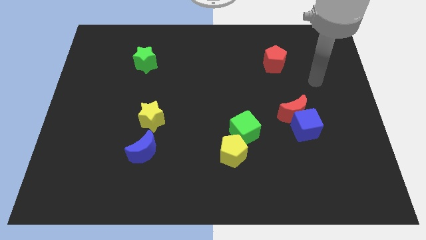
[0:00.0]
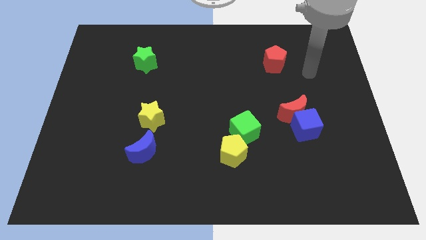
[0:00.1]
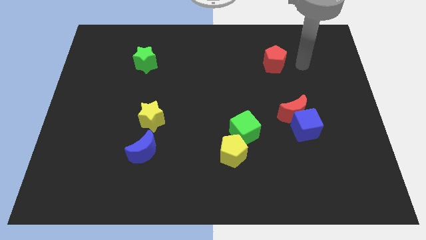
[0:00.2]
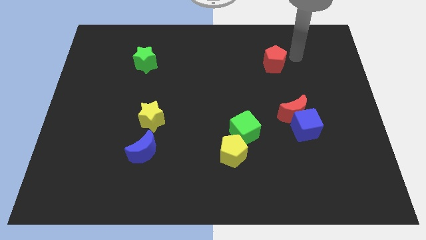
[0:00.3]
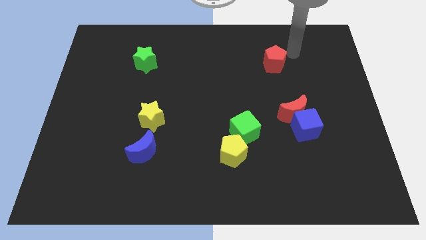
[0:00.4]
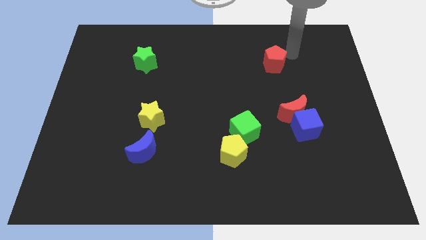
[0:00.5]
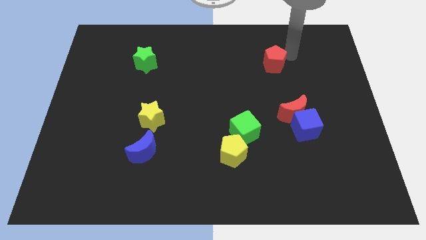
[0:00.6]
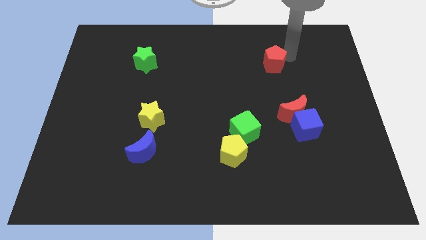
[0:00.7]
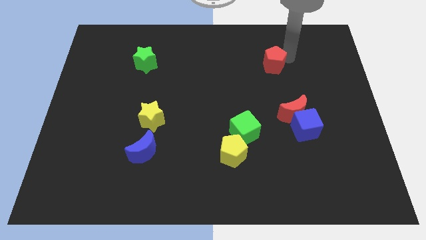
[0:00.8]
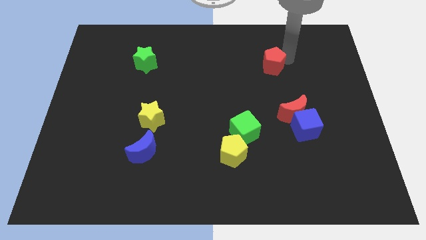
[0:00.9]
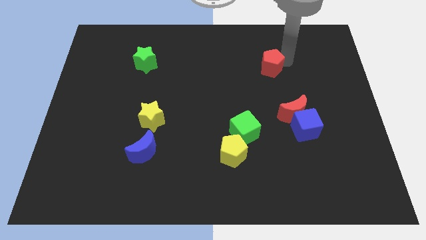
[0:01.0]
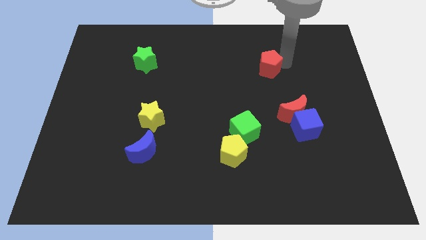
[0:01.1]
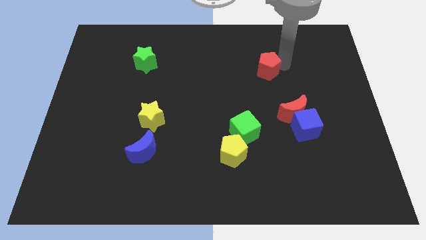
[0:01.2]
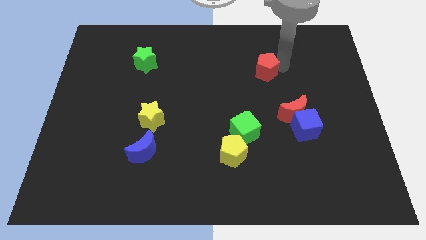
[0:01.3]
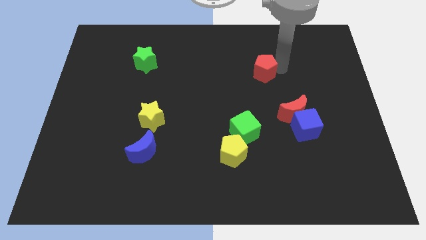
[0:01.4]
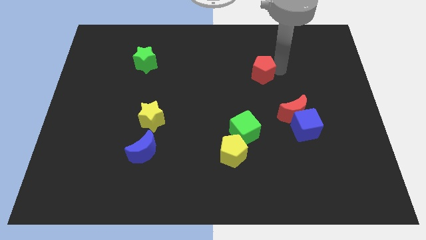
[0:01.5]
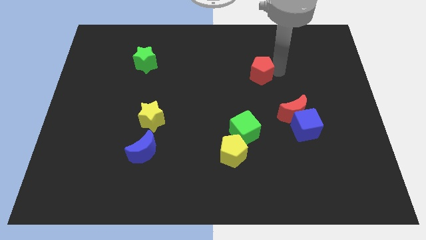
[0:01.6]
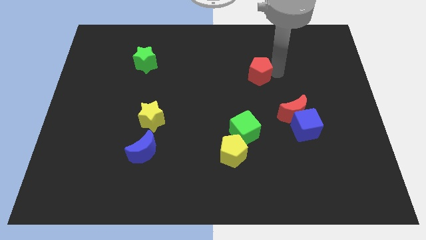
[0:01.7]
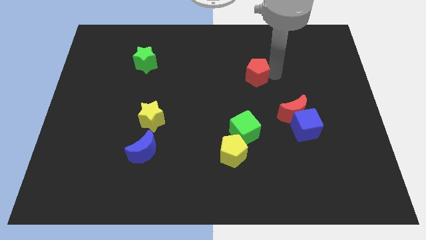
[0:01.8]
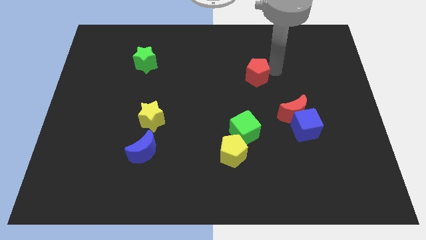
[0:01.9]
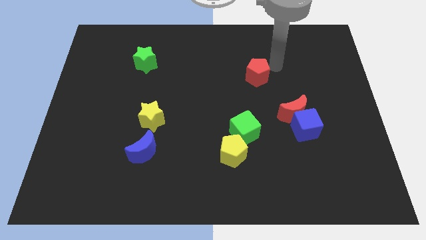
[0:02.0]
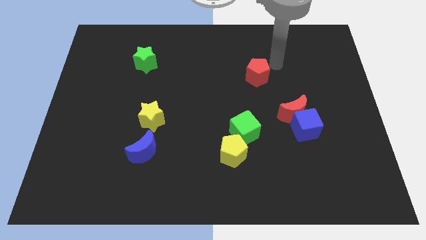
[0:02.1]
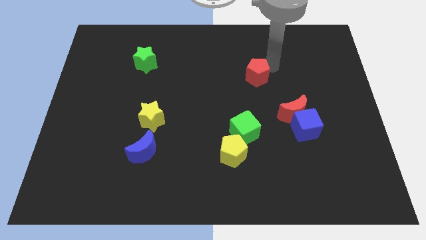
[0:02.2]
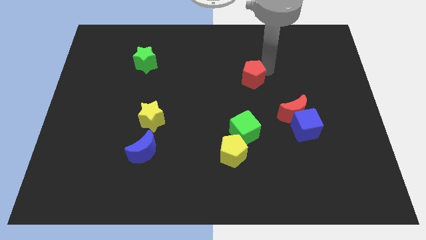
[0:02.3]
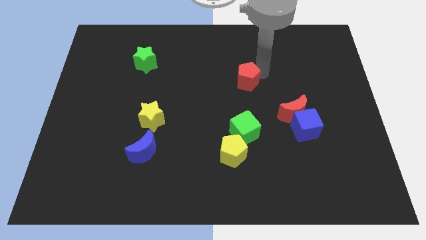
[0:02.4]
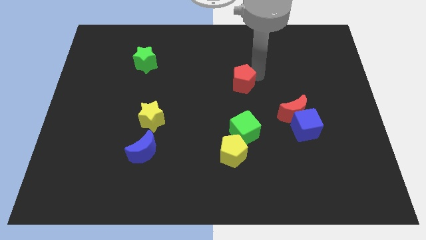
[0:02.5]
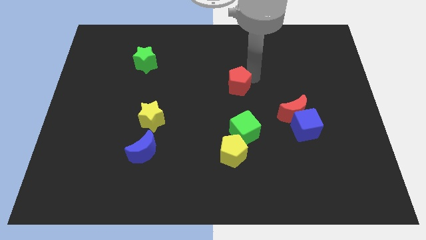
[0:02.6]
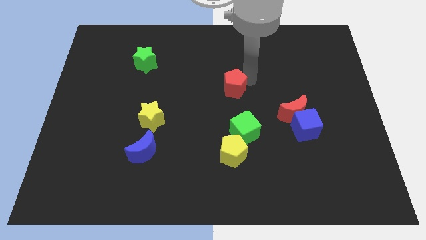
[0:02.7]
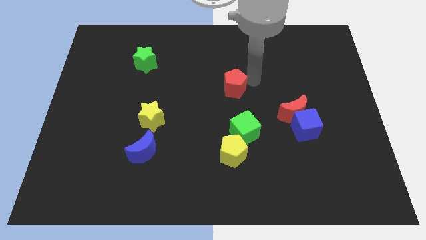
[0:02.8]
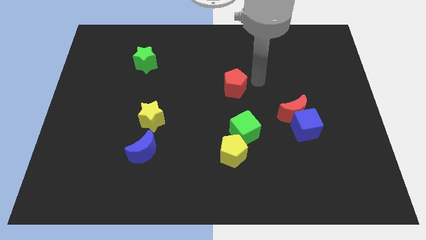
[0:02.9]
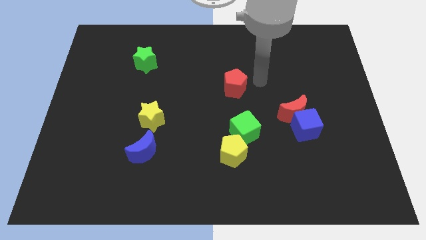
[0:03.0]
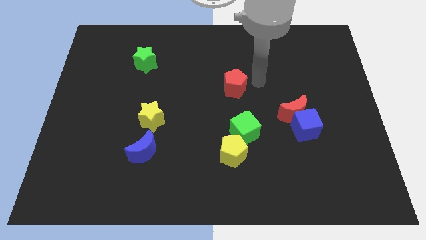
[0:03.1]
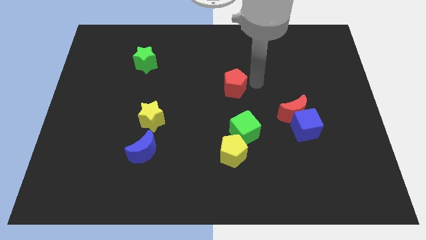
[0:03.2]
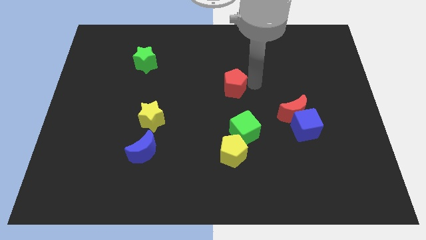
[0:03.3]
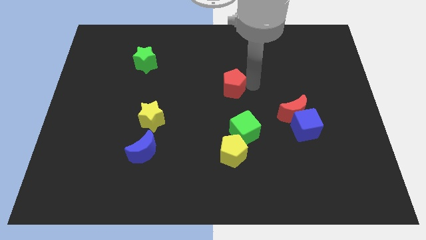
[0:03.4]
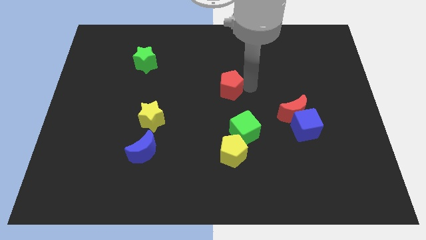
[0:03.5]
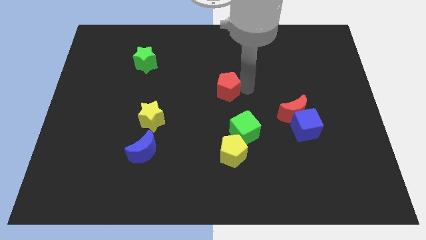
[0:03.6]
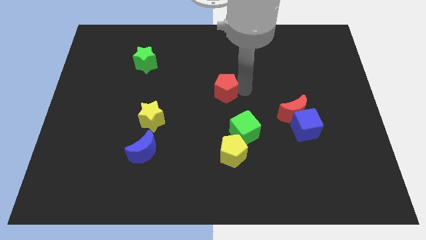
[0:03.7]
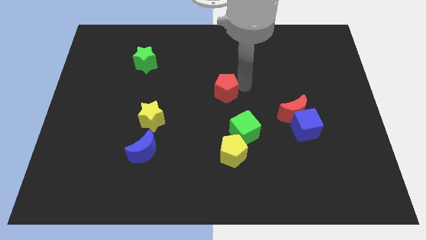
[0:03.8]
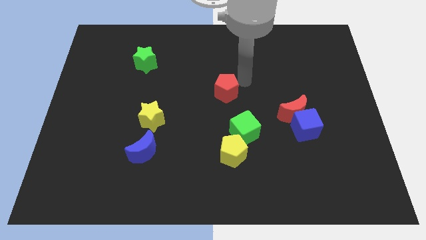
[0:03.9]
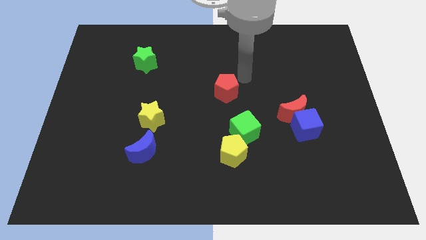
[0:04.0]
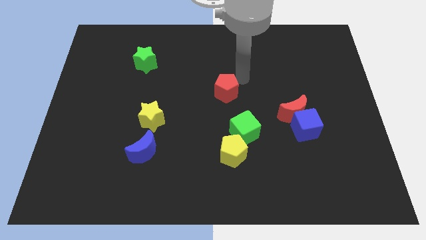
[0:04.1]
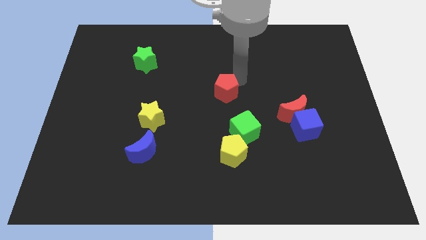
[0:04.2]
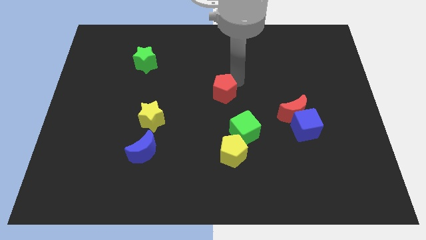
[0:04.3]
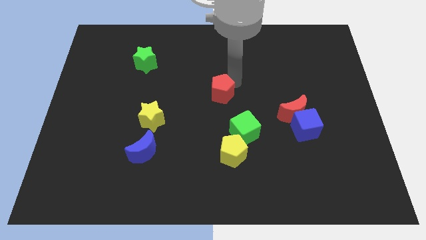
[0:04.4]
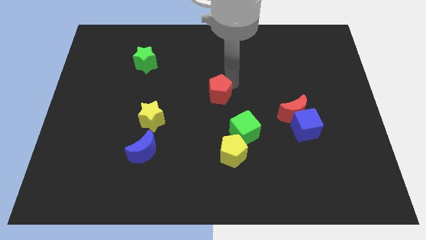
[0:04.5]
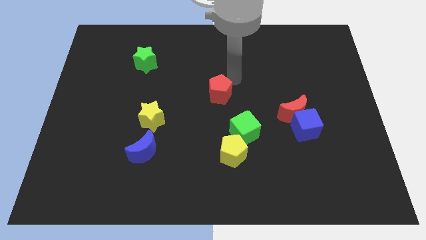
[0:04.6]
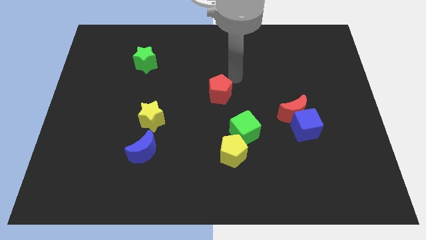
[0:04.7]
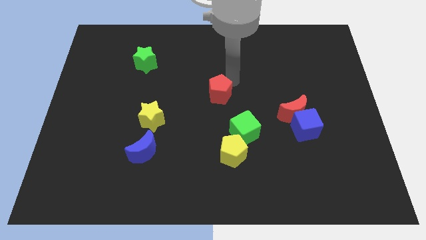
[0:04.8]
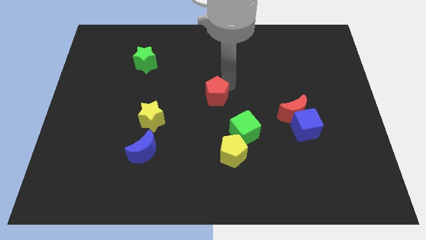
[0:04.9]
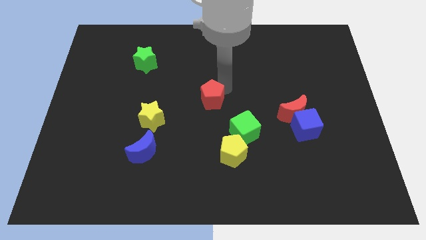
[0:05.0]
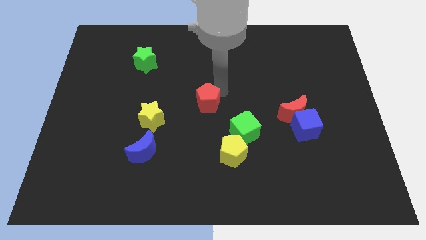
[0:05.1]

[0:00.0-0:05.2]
move the red pentagon down and then to the left

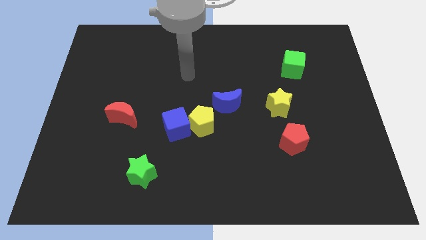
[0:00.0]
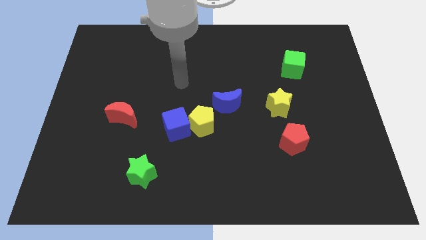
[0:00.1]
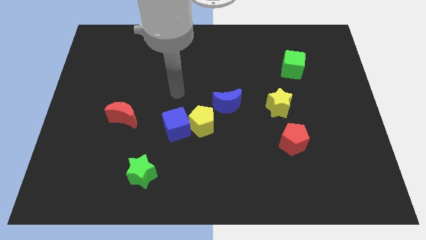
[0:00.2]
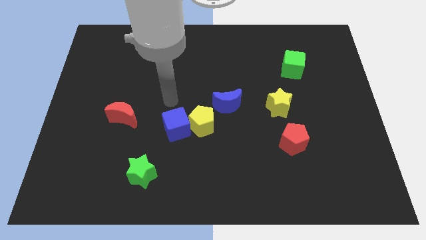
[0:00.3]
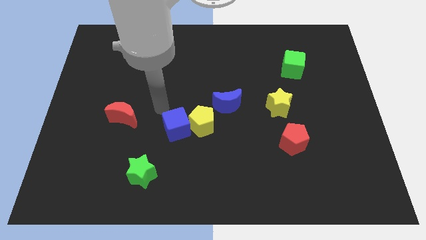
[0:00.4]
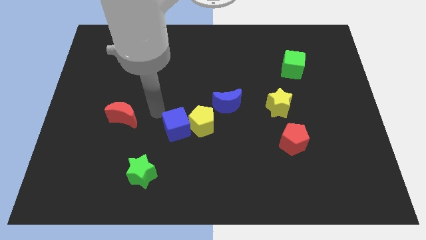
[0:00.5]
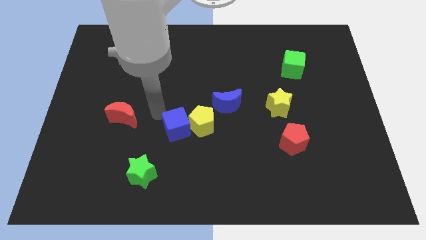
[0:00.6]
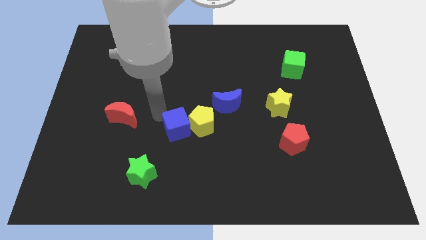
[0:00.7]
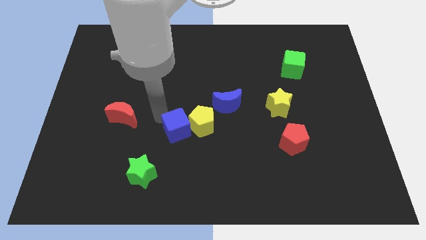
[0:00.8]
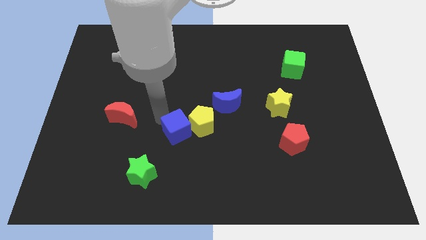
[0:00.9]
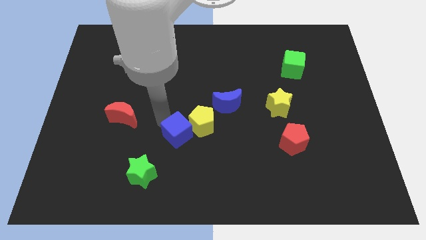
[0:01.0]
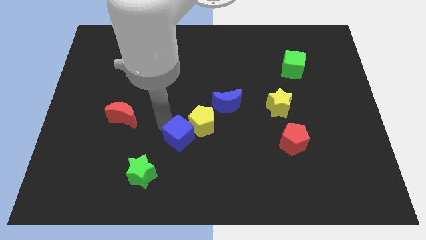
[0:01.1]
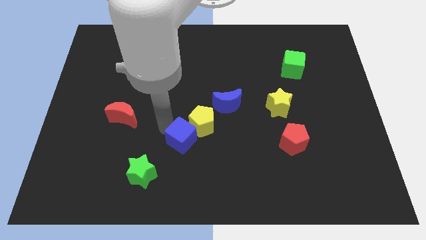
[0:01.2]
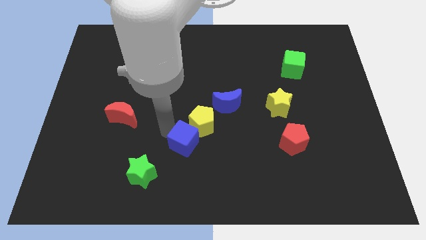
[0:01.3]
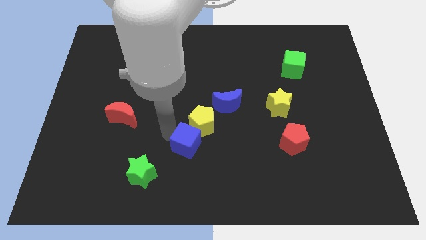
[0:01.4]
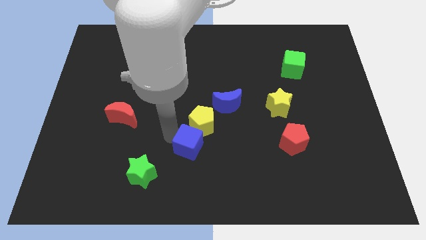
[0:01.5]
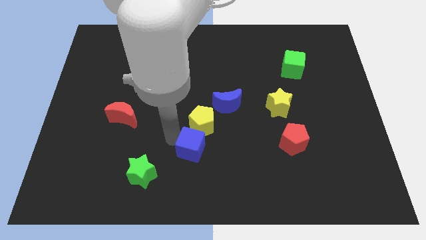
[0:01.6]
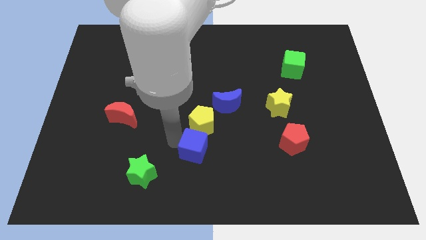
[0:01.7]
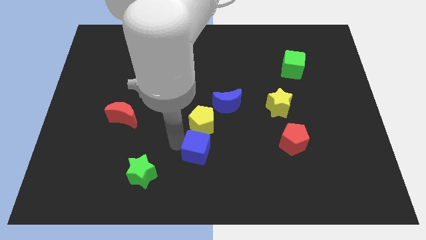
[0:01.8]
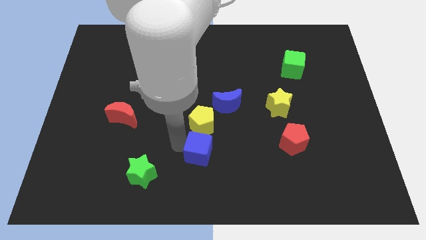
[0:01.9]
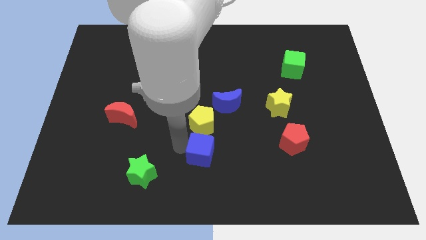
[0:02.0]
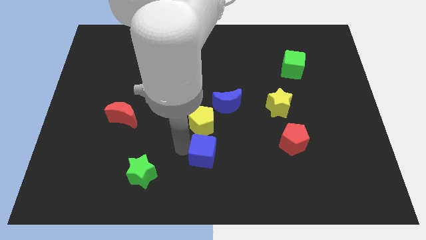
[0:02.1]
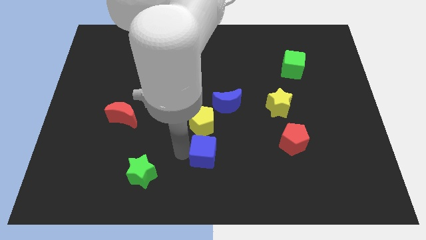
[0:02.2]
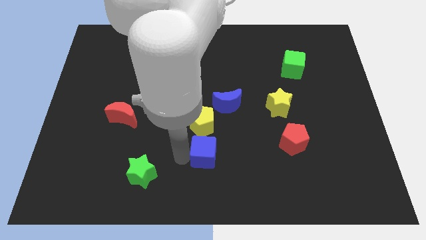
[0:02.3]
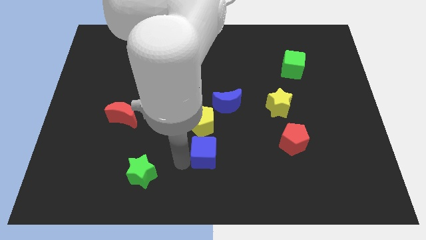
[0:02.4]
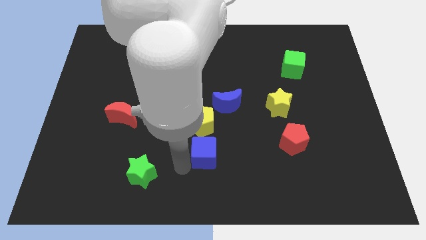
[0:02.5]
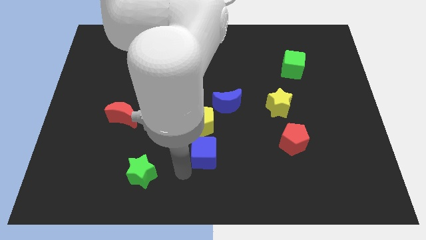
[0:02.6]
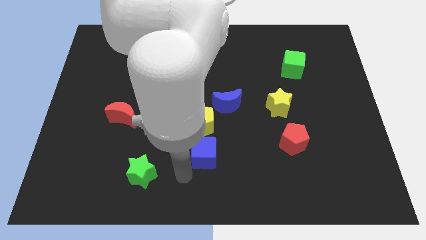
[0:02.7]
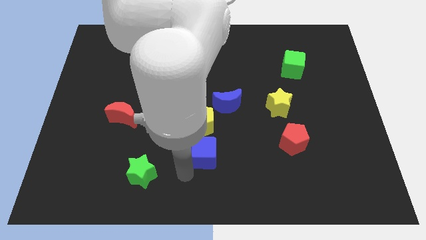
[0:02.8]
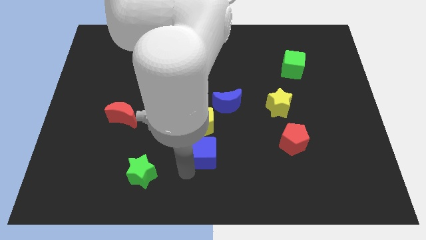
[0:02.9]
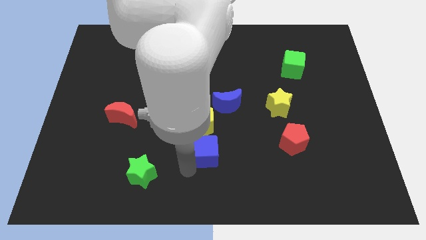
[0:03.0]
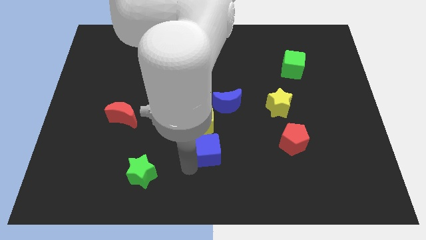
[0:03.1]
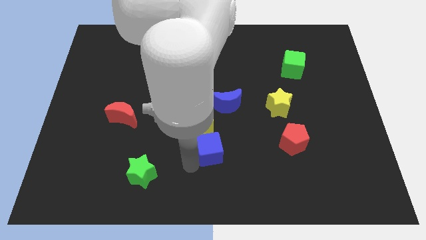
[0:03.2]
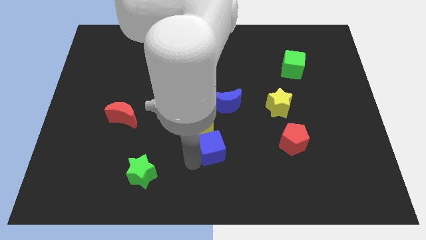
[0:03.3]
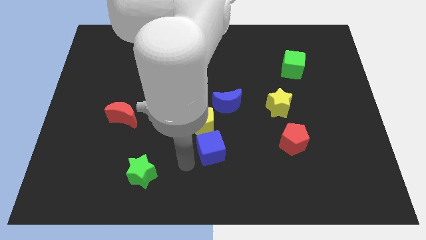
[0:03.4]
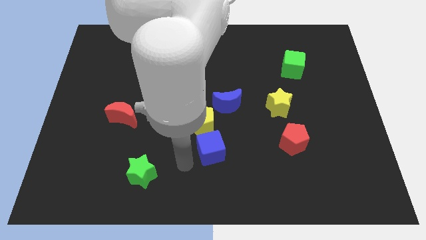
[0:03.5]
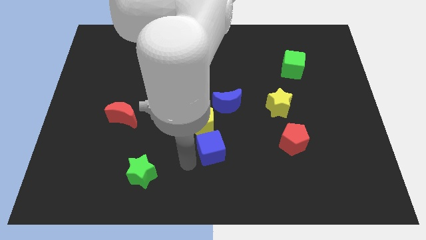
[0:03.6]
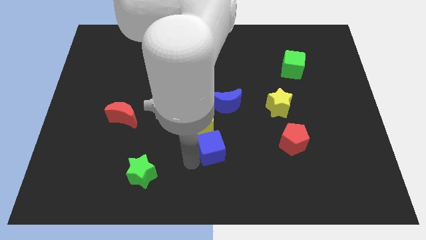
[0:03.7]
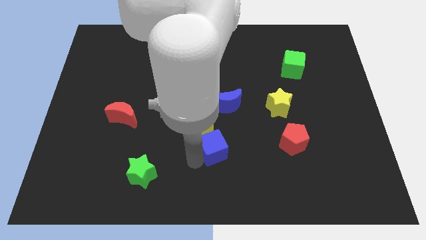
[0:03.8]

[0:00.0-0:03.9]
move the blue cube somewhat right
